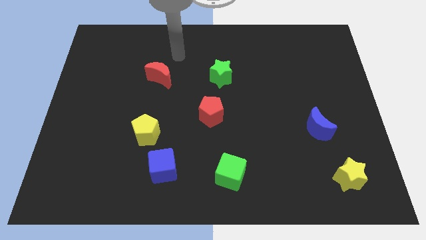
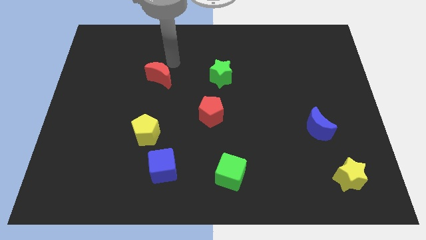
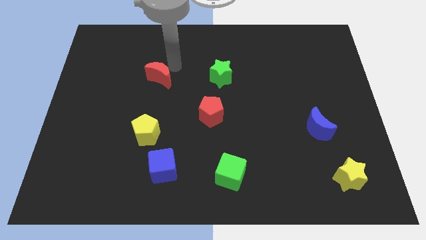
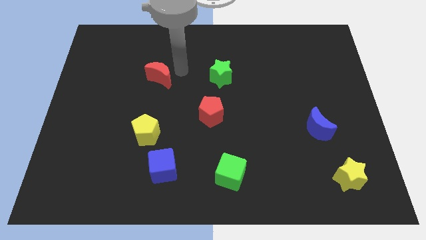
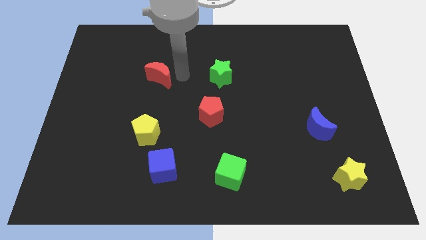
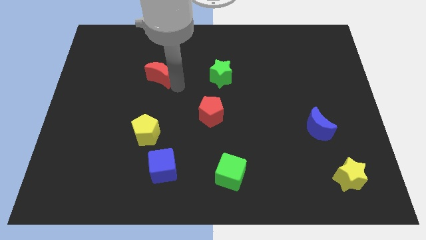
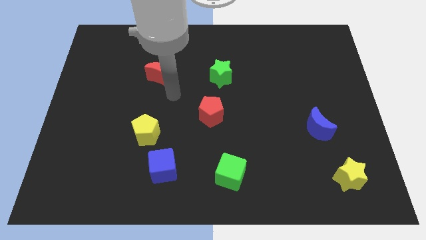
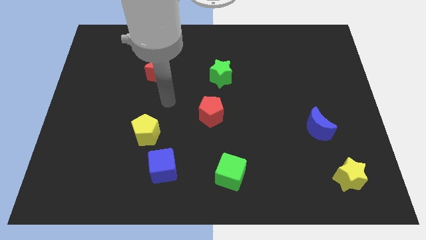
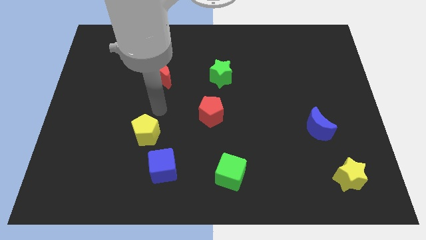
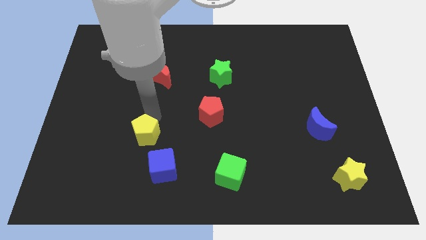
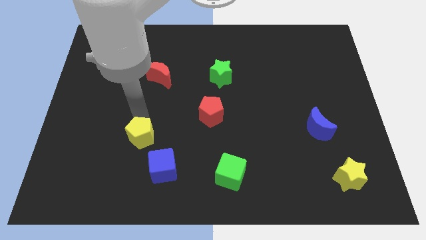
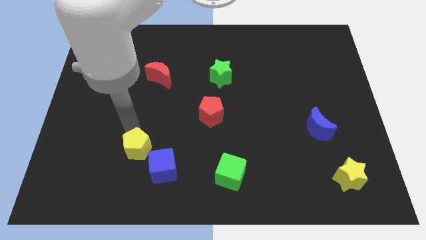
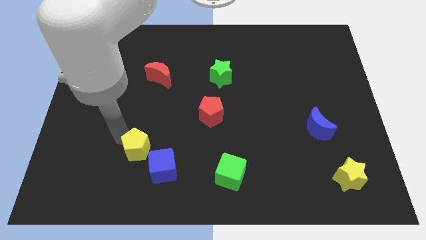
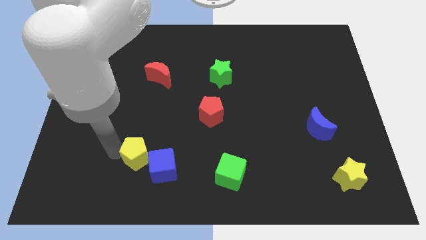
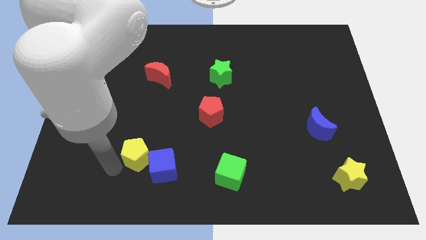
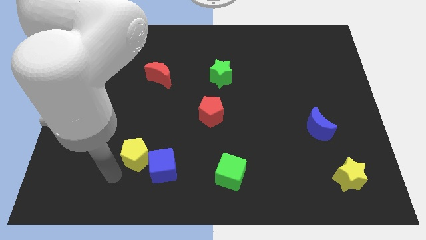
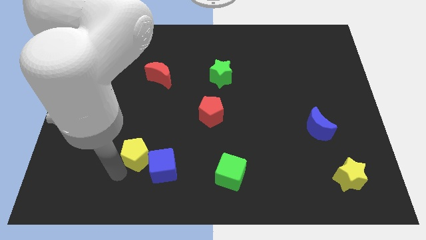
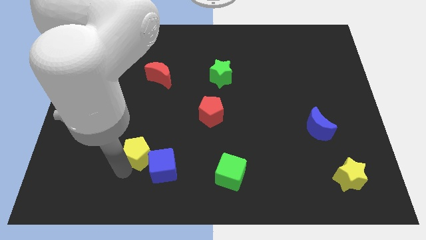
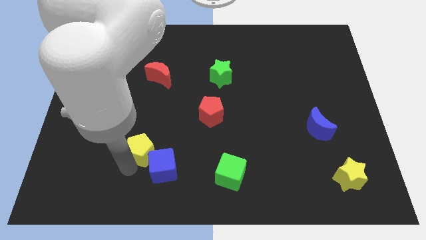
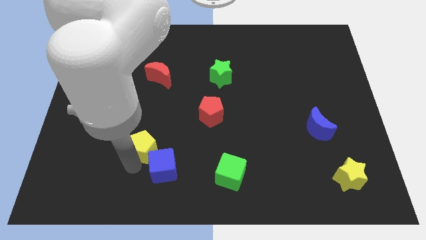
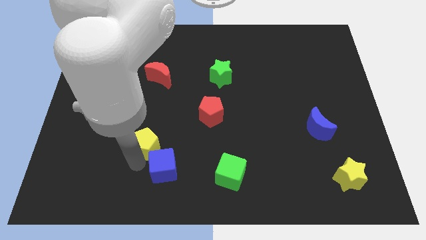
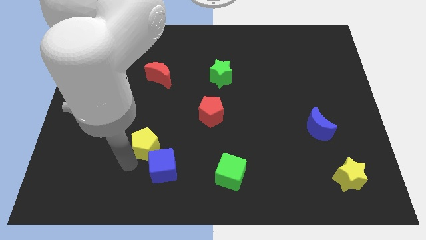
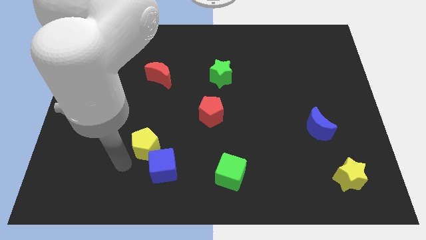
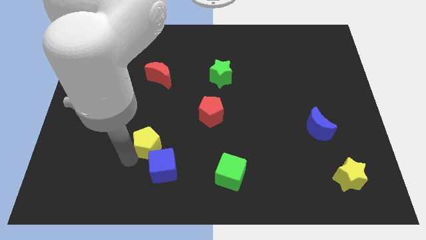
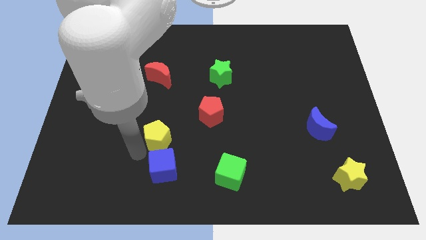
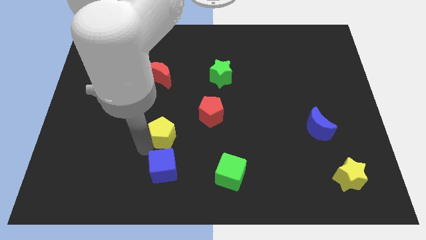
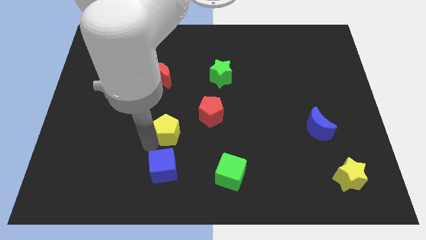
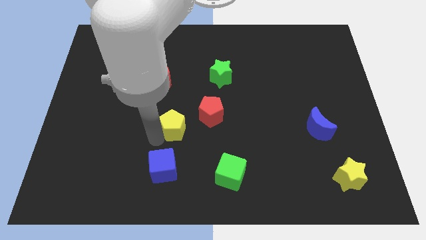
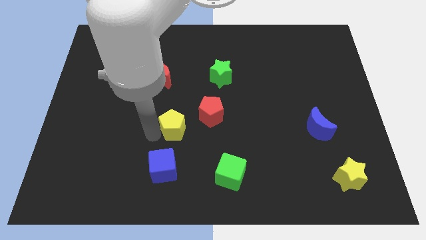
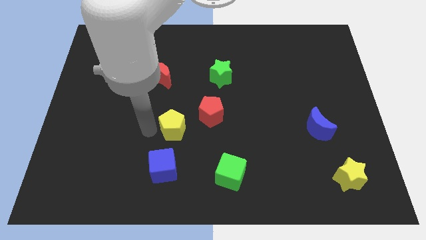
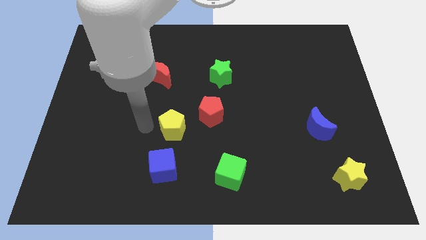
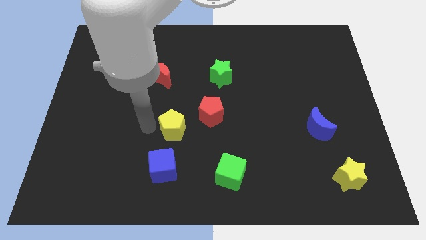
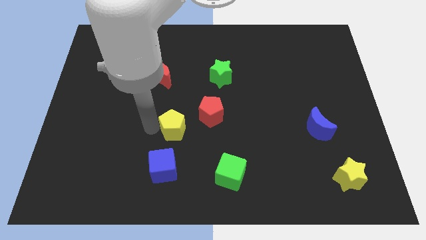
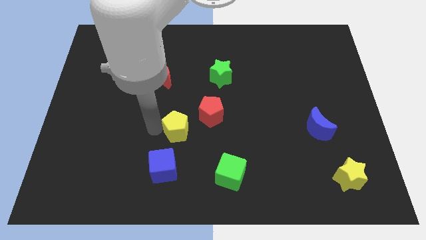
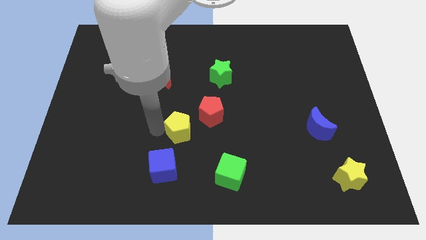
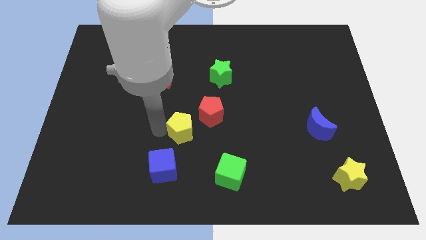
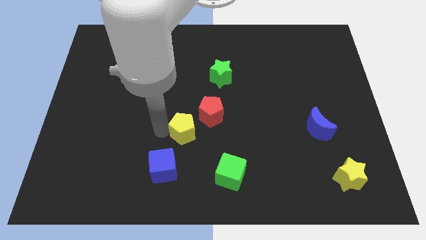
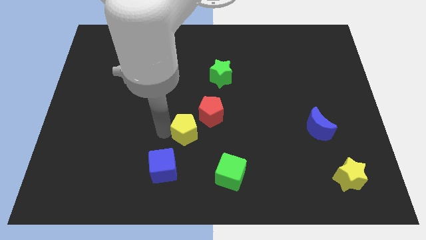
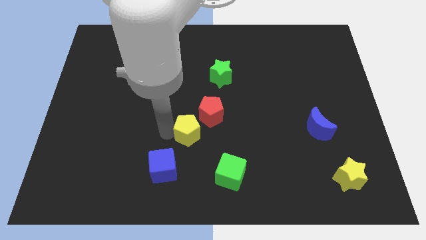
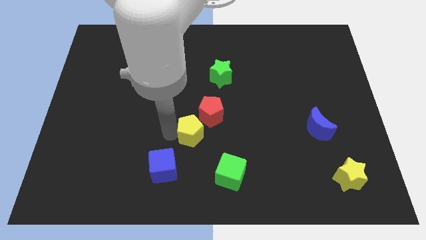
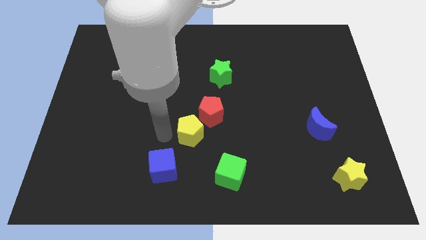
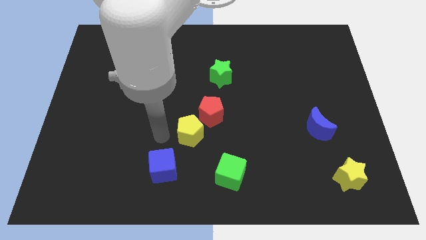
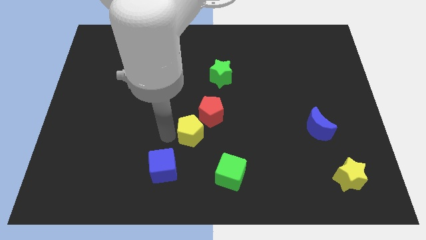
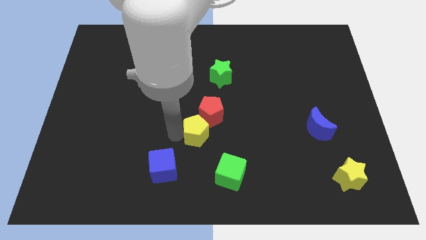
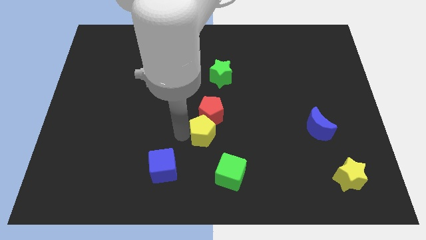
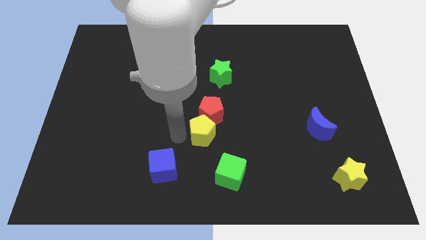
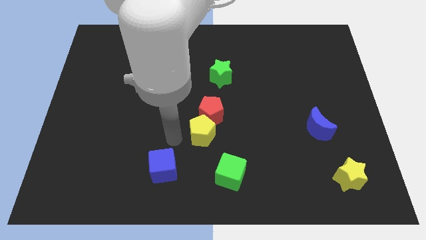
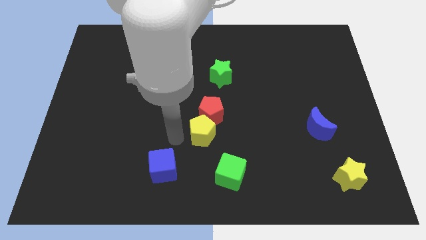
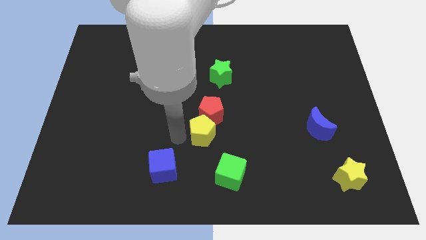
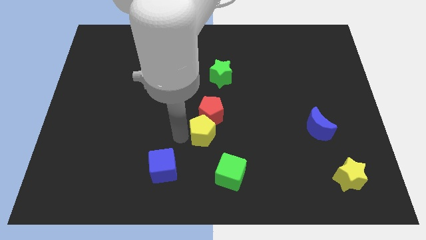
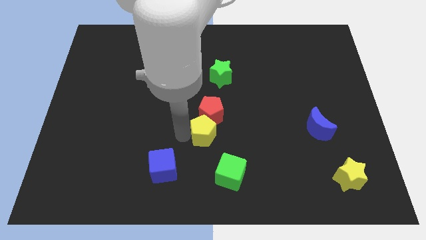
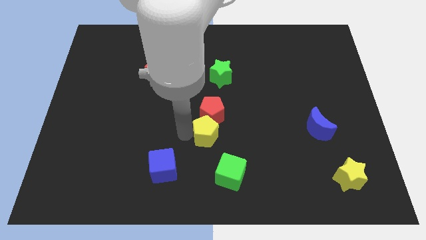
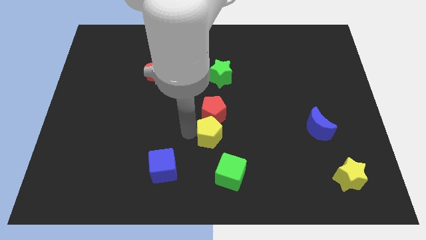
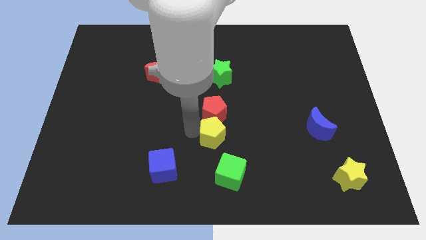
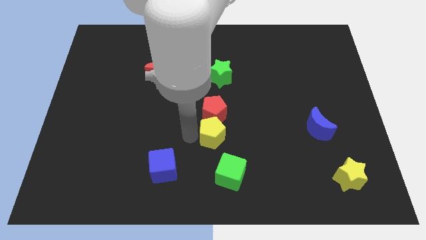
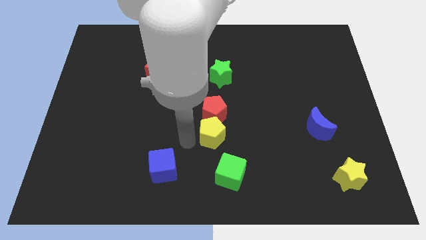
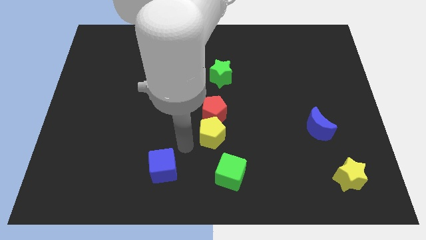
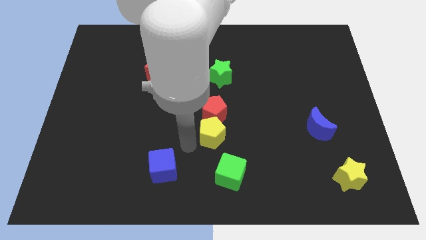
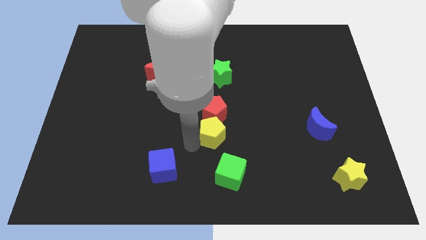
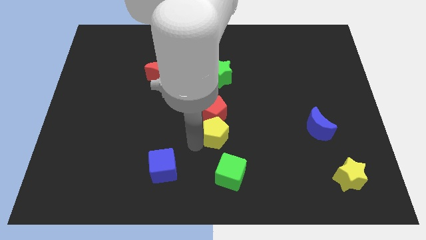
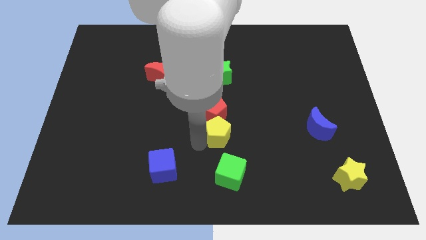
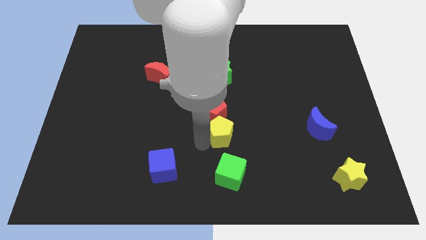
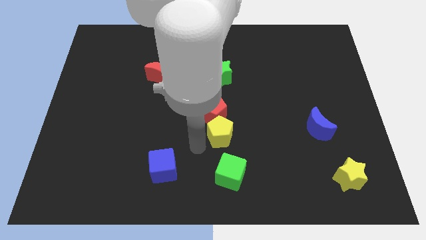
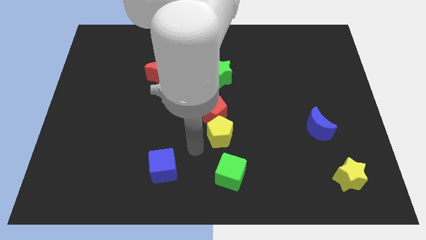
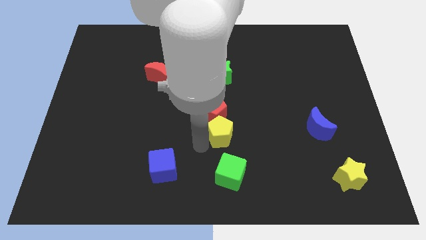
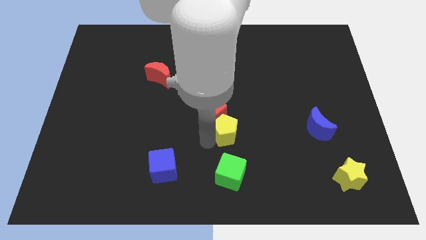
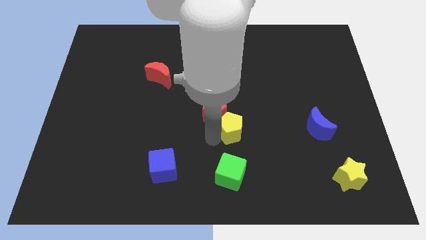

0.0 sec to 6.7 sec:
move the yellow pentagon right of the red pentagon
